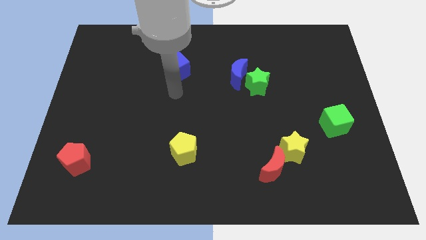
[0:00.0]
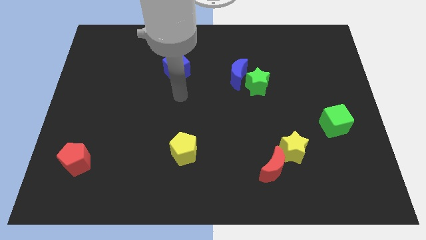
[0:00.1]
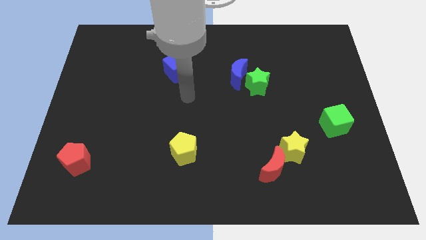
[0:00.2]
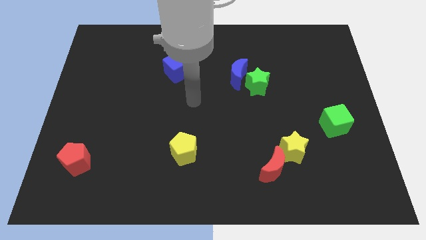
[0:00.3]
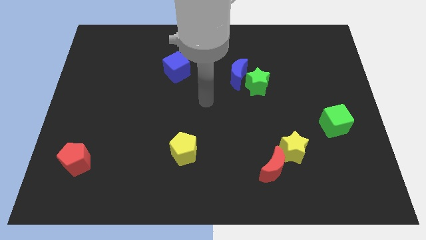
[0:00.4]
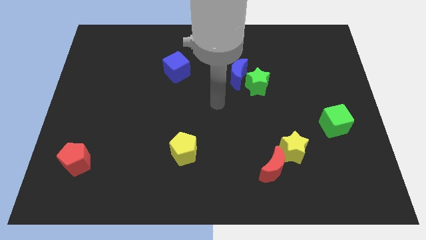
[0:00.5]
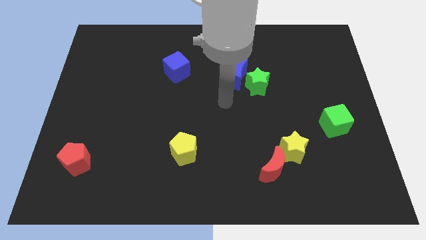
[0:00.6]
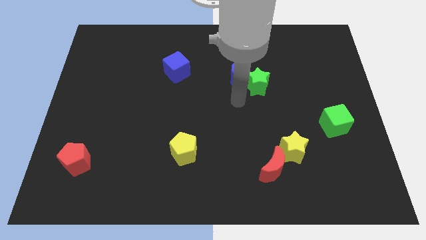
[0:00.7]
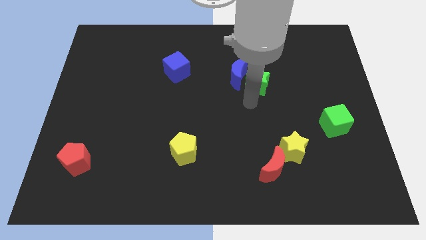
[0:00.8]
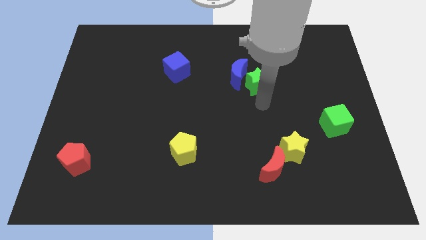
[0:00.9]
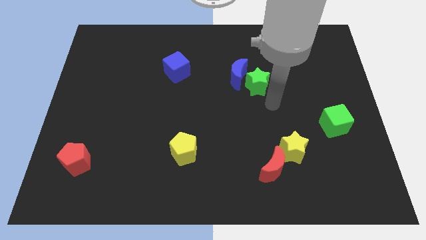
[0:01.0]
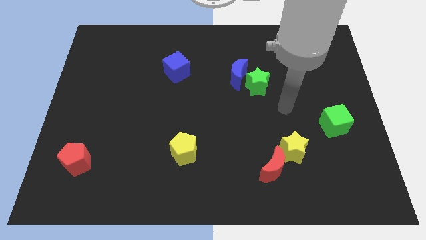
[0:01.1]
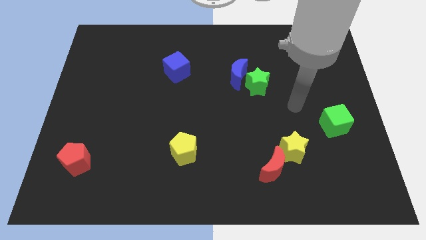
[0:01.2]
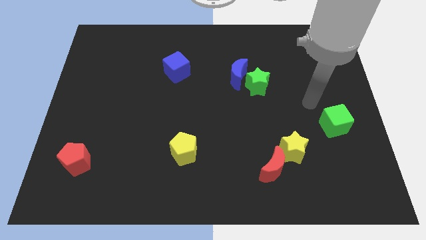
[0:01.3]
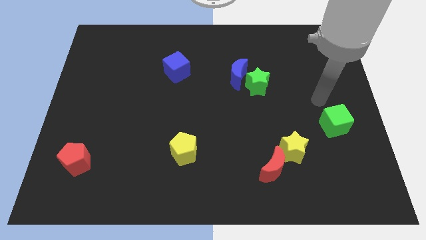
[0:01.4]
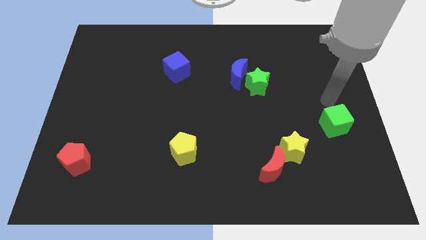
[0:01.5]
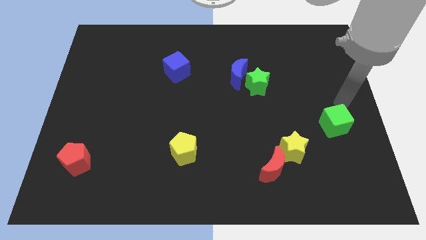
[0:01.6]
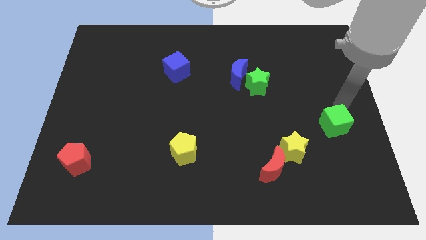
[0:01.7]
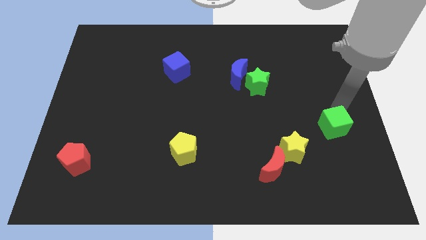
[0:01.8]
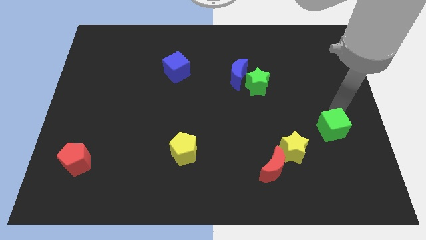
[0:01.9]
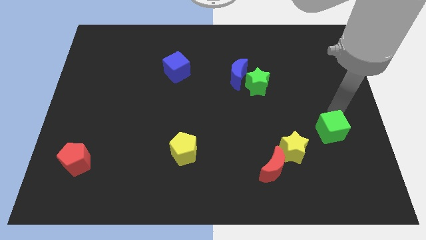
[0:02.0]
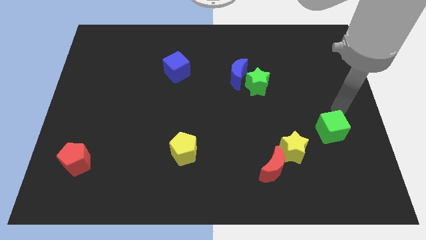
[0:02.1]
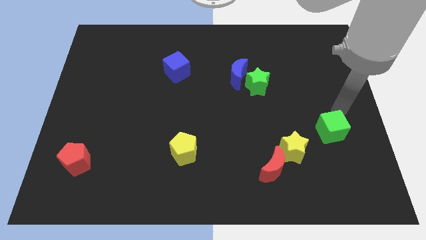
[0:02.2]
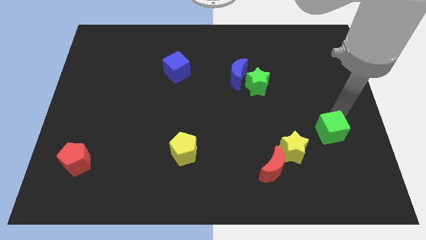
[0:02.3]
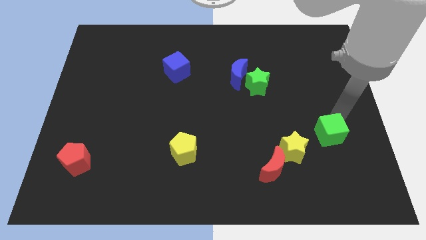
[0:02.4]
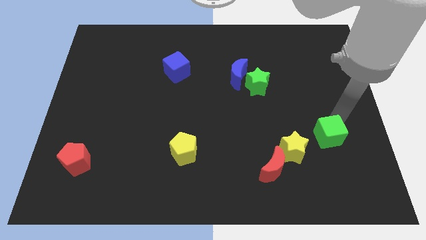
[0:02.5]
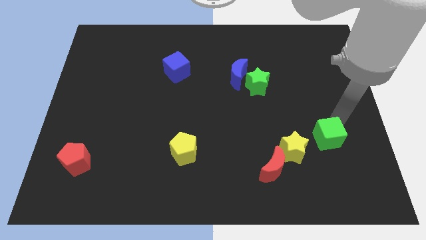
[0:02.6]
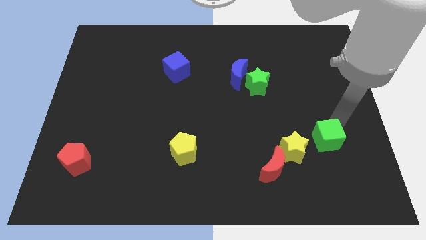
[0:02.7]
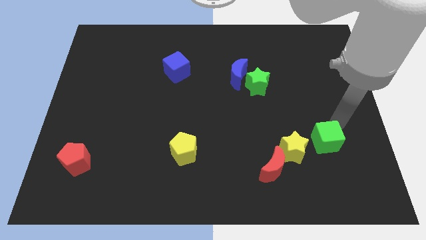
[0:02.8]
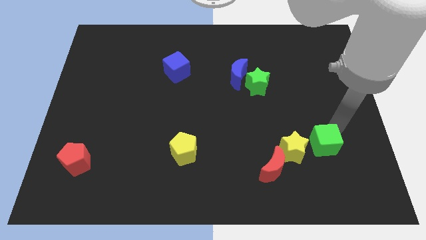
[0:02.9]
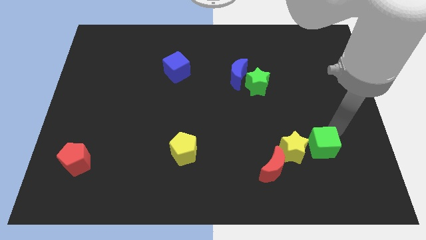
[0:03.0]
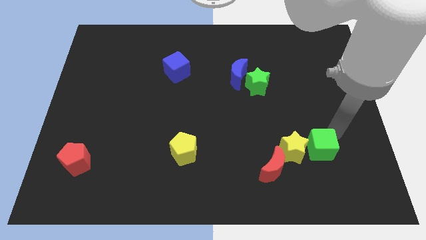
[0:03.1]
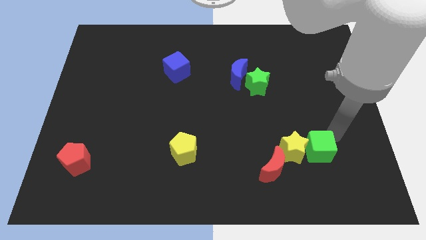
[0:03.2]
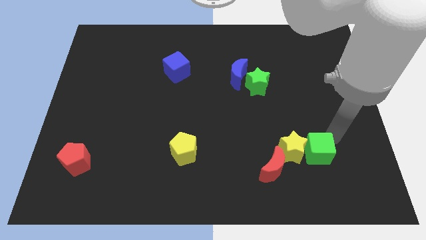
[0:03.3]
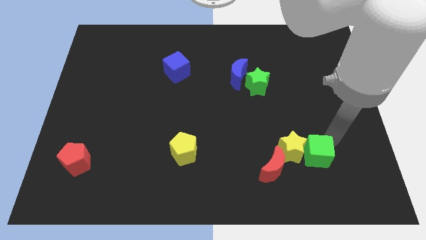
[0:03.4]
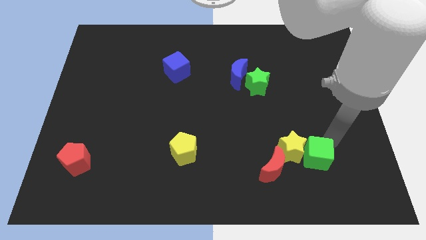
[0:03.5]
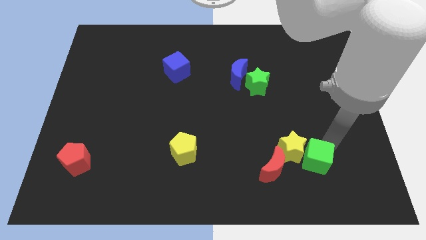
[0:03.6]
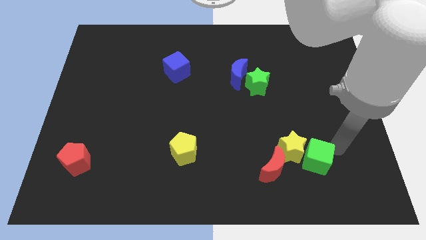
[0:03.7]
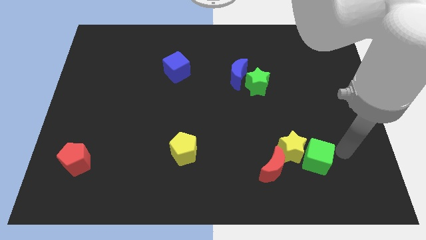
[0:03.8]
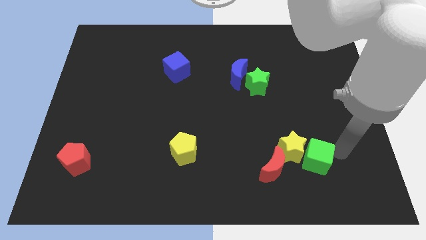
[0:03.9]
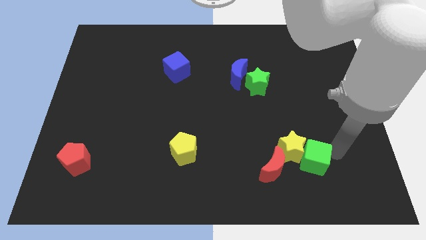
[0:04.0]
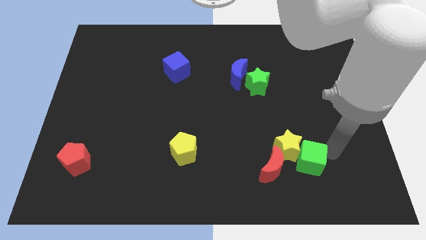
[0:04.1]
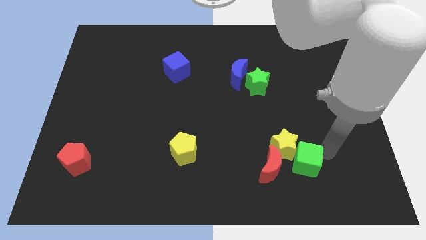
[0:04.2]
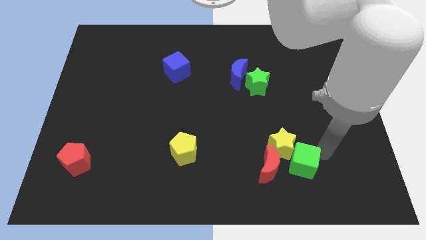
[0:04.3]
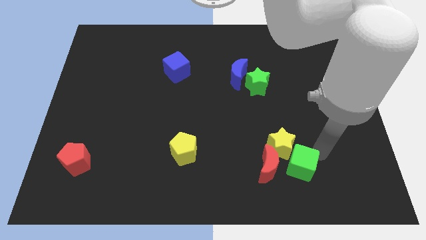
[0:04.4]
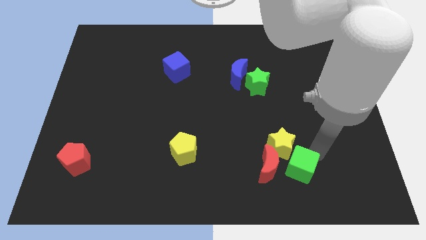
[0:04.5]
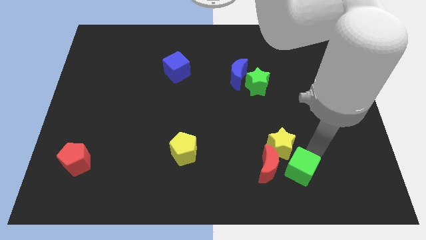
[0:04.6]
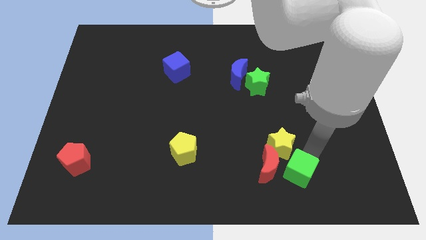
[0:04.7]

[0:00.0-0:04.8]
put the green cube next to the red moon

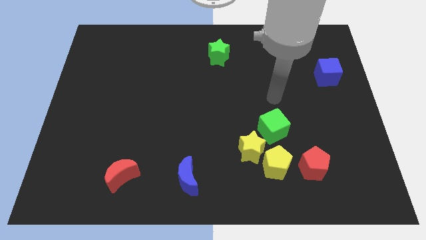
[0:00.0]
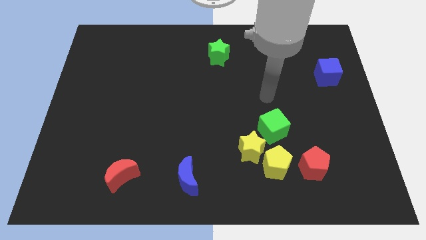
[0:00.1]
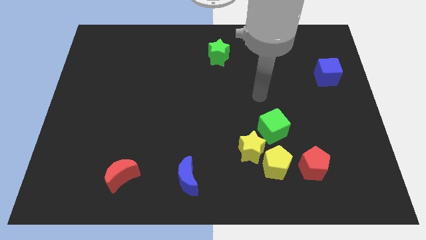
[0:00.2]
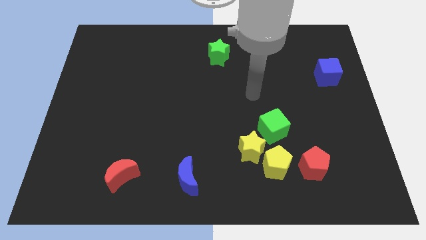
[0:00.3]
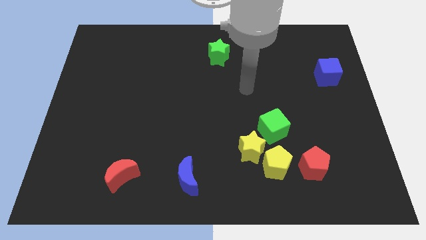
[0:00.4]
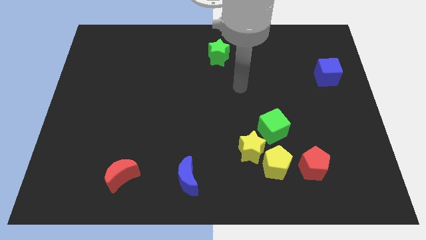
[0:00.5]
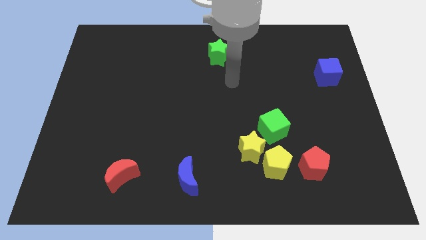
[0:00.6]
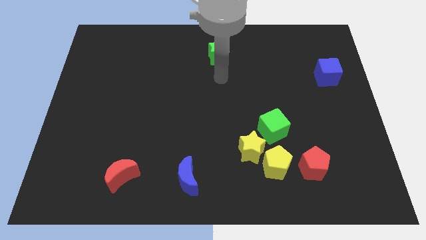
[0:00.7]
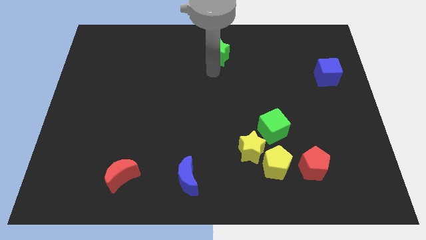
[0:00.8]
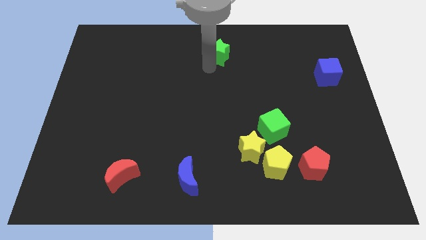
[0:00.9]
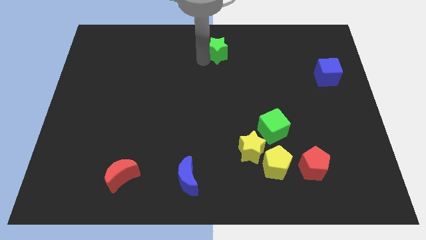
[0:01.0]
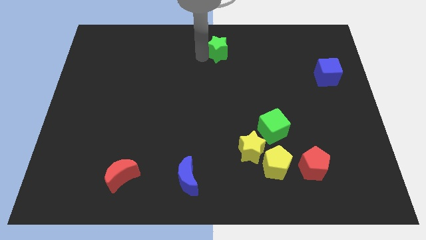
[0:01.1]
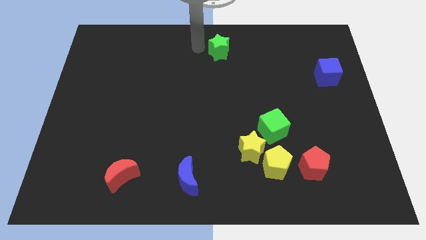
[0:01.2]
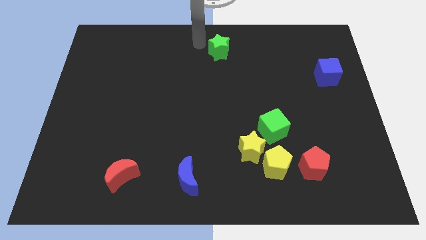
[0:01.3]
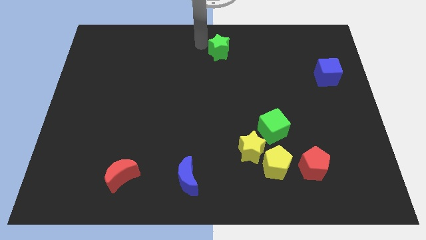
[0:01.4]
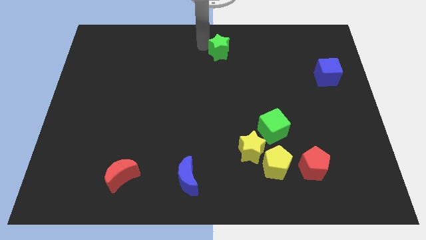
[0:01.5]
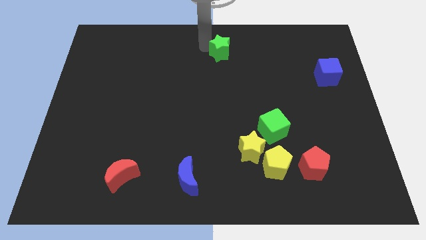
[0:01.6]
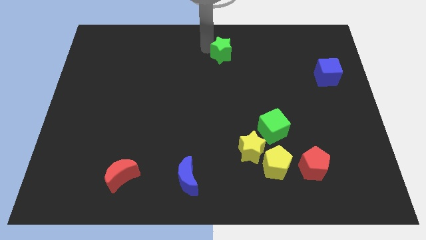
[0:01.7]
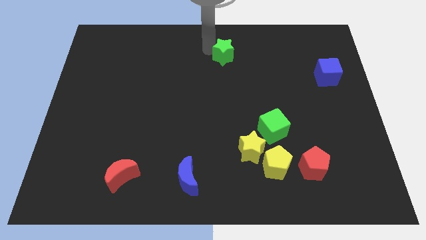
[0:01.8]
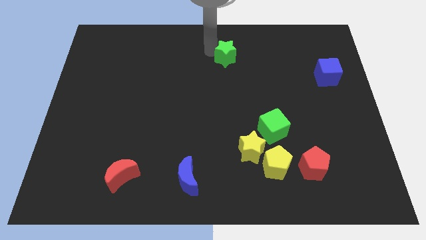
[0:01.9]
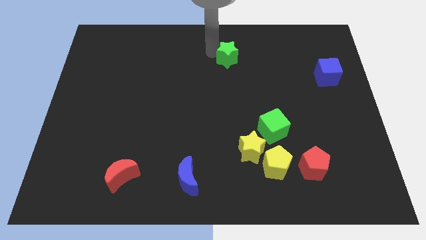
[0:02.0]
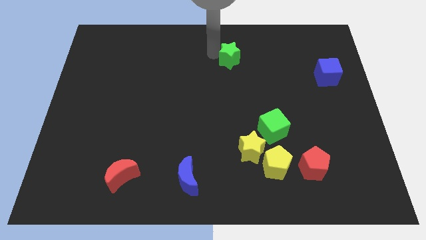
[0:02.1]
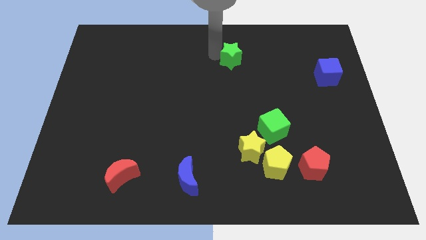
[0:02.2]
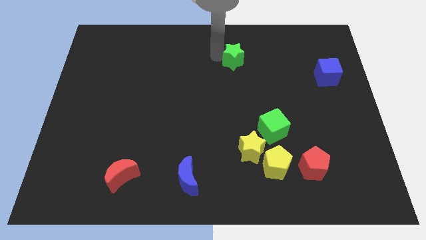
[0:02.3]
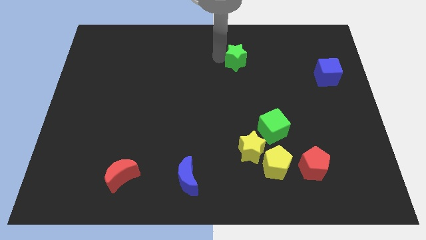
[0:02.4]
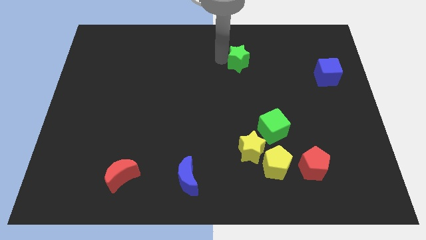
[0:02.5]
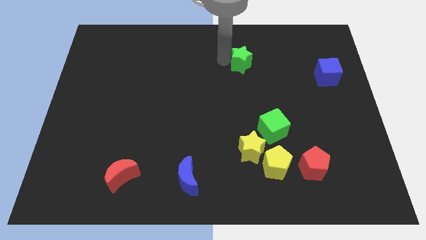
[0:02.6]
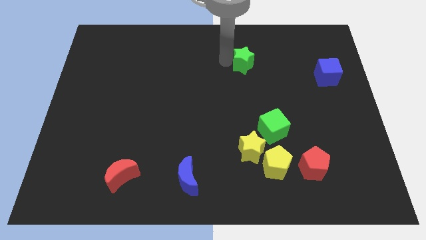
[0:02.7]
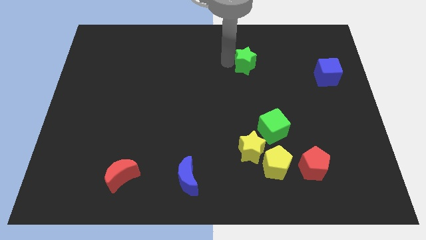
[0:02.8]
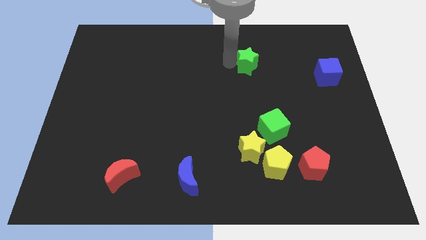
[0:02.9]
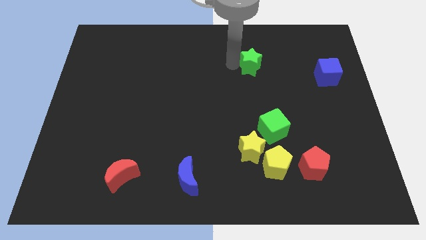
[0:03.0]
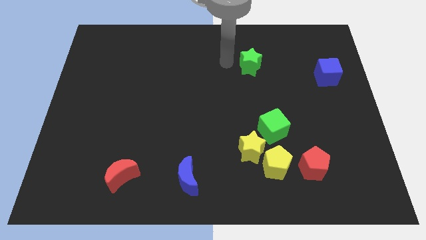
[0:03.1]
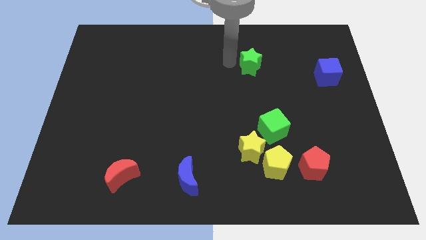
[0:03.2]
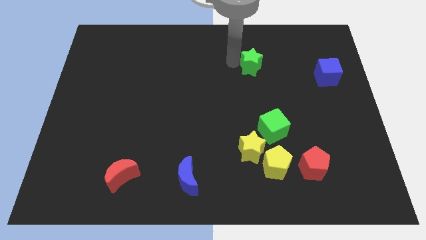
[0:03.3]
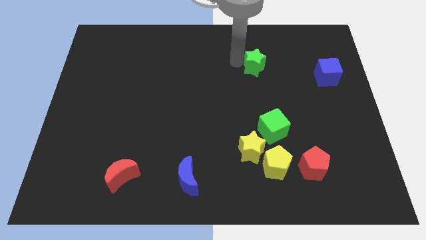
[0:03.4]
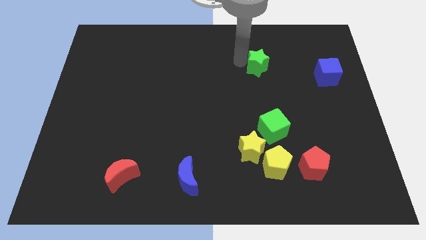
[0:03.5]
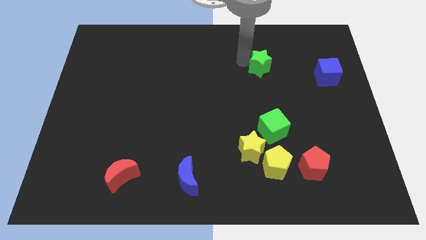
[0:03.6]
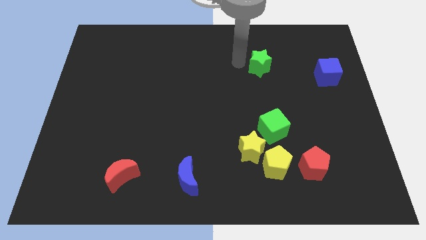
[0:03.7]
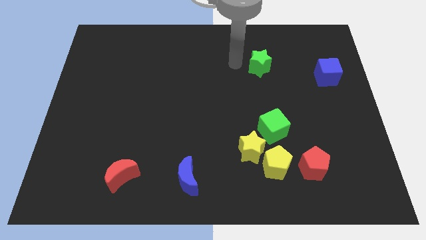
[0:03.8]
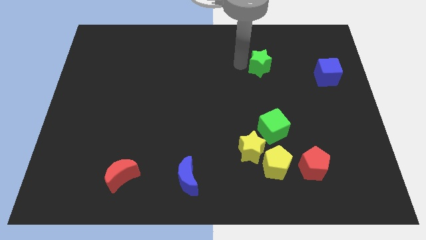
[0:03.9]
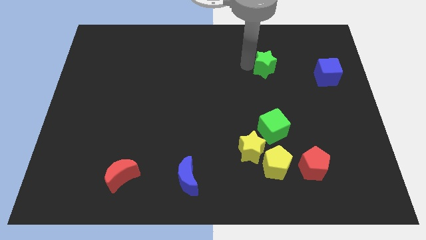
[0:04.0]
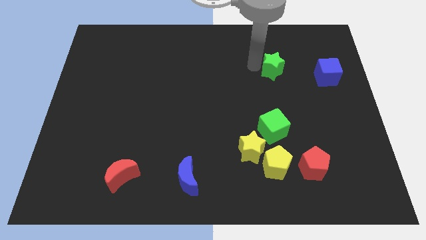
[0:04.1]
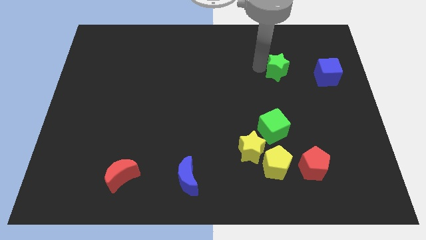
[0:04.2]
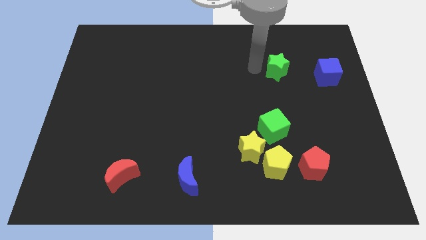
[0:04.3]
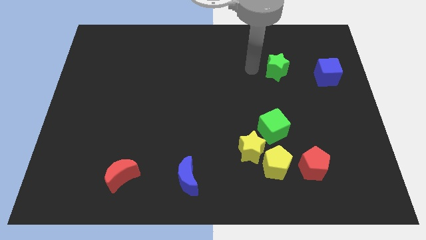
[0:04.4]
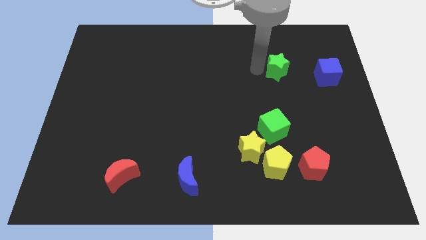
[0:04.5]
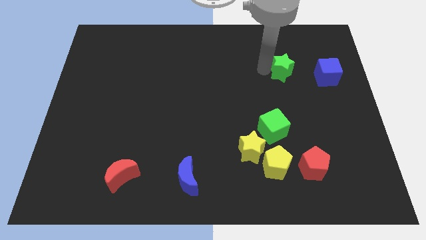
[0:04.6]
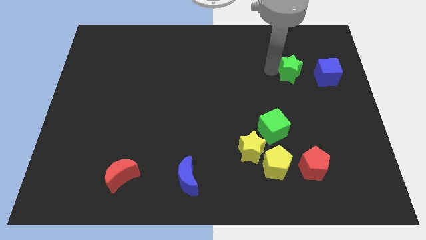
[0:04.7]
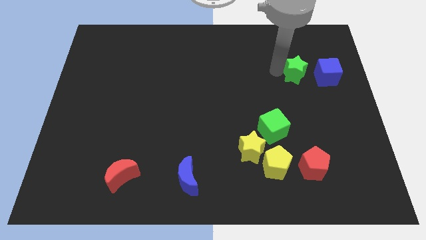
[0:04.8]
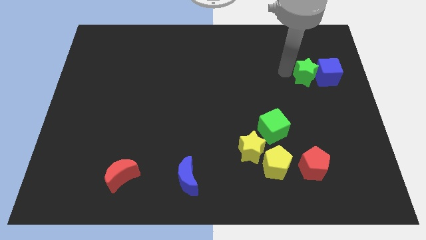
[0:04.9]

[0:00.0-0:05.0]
slide the green star to the blue cube
